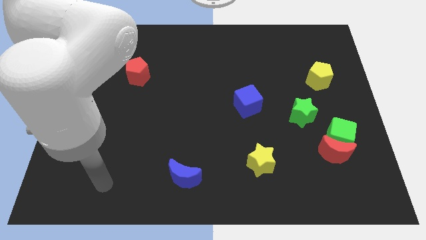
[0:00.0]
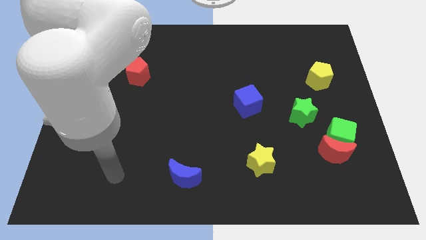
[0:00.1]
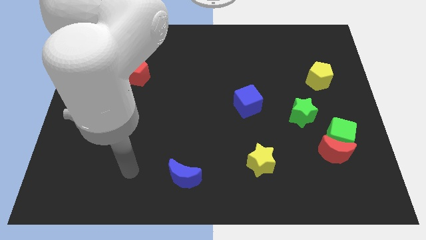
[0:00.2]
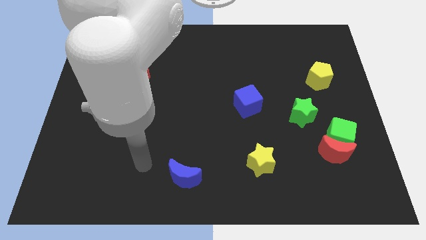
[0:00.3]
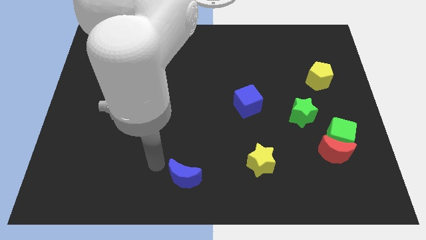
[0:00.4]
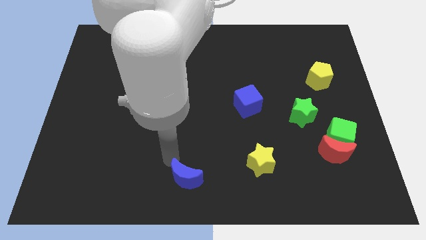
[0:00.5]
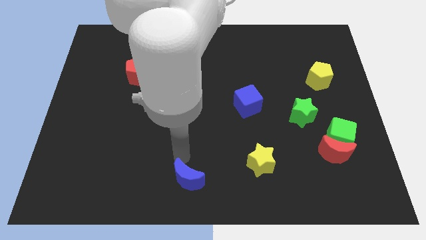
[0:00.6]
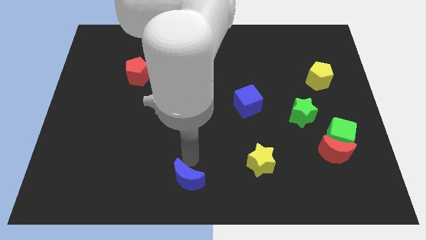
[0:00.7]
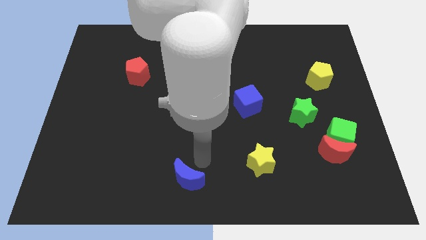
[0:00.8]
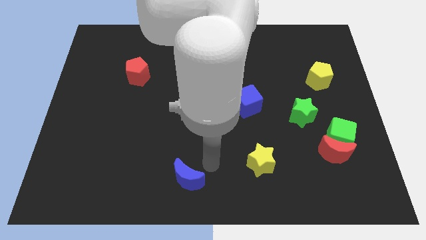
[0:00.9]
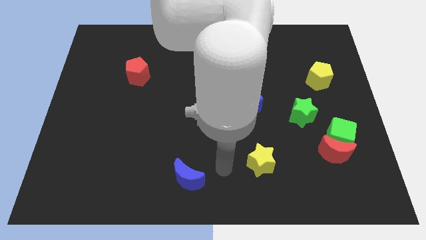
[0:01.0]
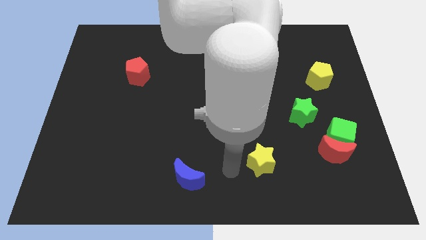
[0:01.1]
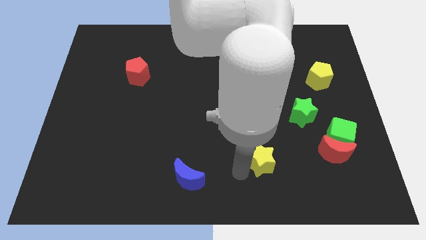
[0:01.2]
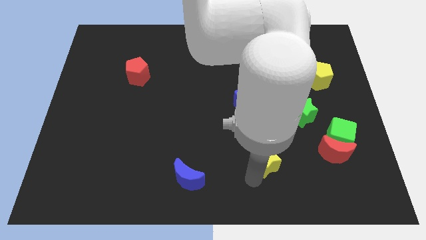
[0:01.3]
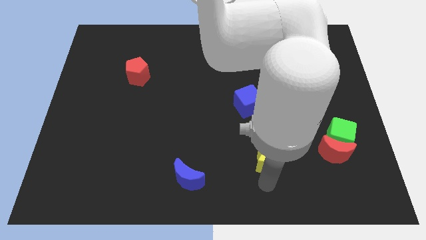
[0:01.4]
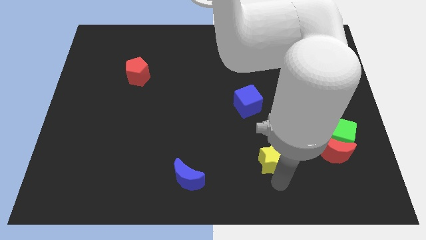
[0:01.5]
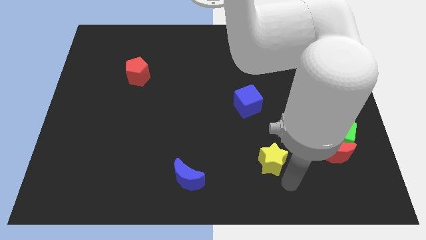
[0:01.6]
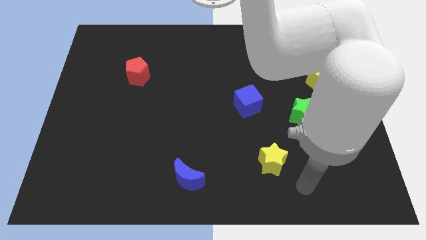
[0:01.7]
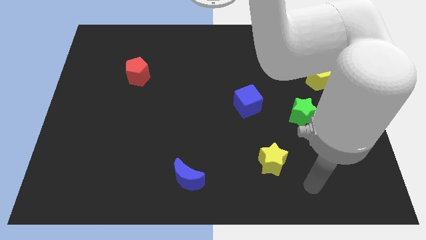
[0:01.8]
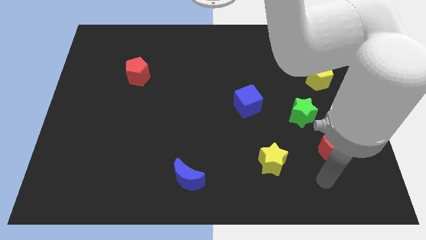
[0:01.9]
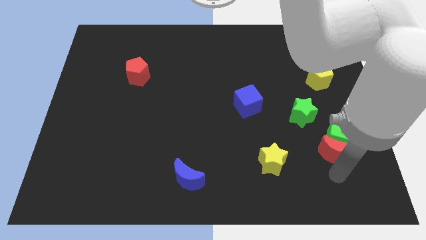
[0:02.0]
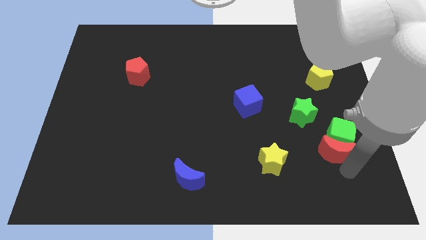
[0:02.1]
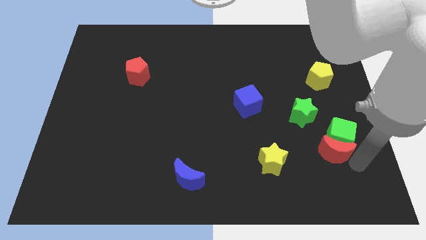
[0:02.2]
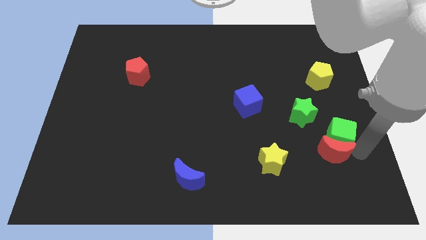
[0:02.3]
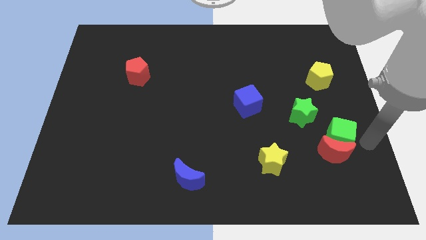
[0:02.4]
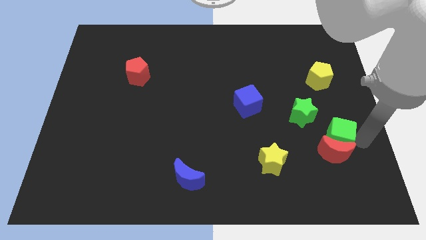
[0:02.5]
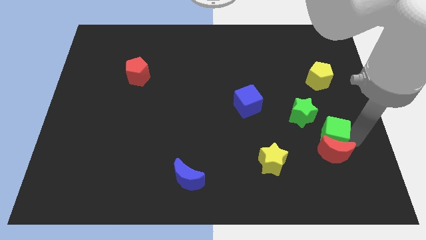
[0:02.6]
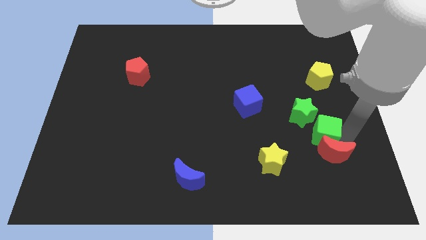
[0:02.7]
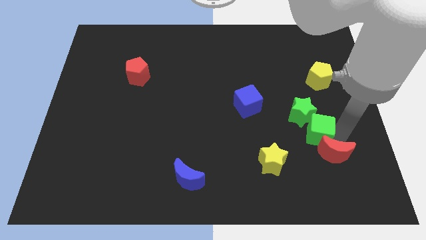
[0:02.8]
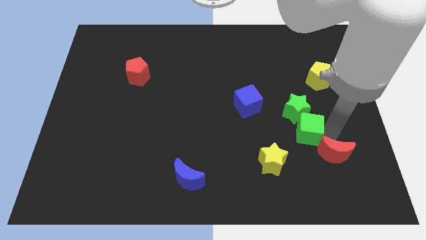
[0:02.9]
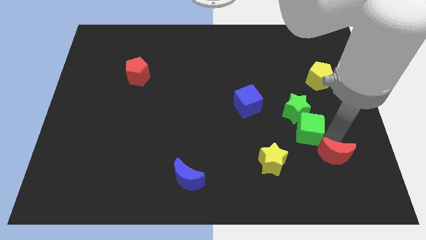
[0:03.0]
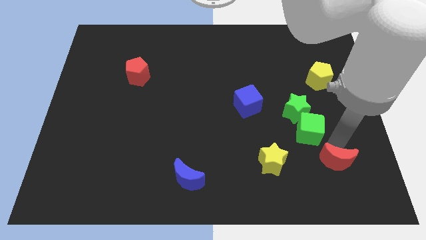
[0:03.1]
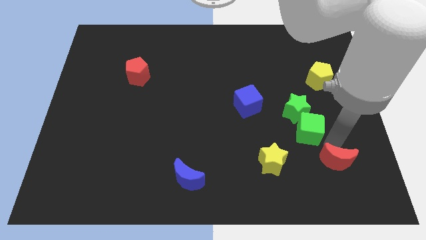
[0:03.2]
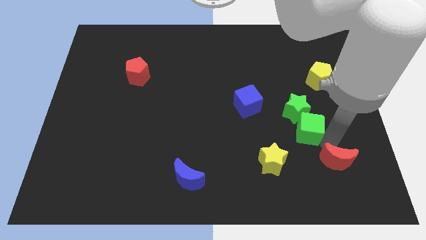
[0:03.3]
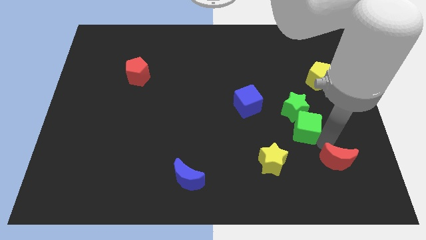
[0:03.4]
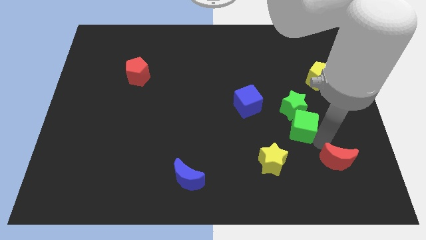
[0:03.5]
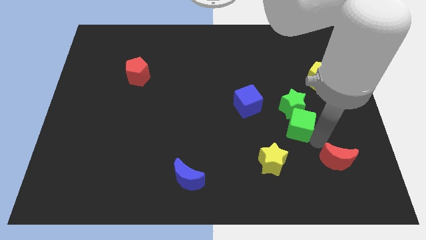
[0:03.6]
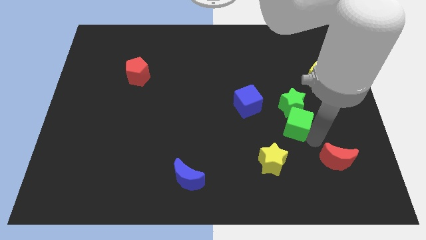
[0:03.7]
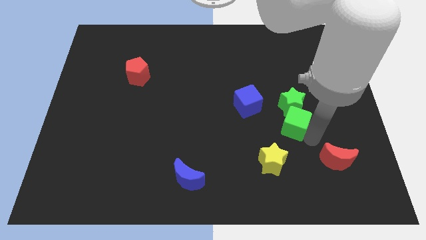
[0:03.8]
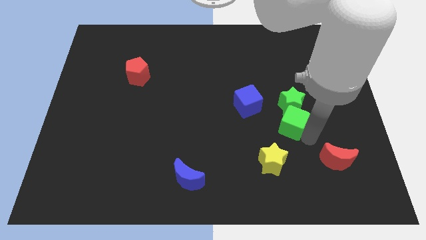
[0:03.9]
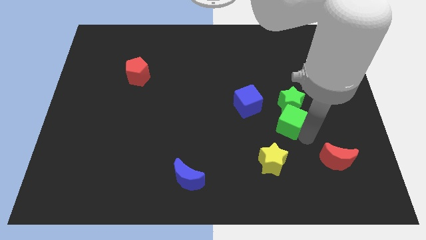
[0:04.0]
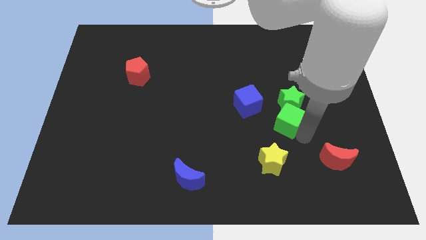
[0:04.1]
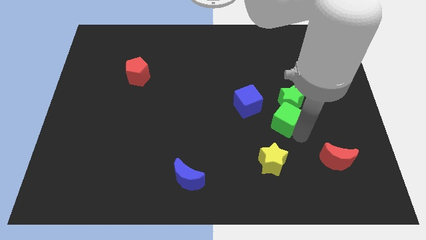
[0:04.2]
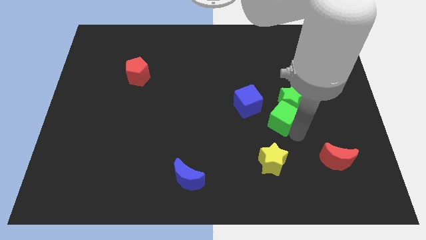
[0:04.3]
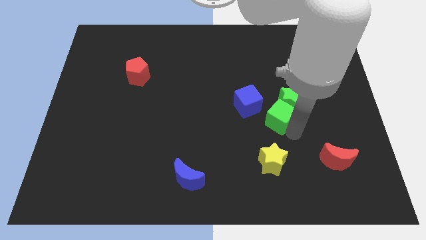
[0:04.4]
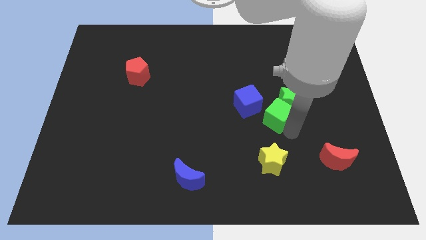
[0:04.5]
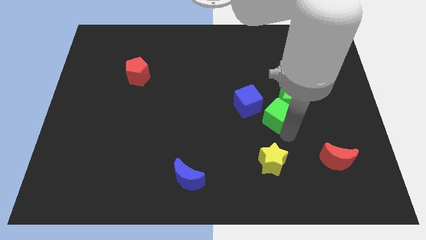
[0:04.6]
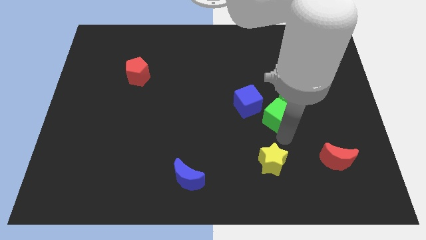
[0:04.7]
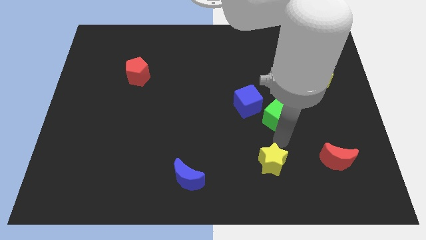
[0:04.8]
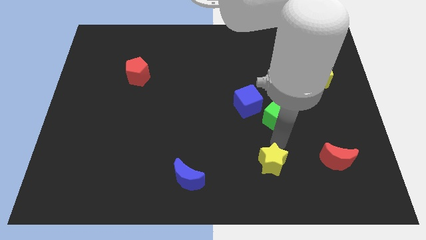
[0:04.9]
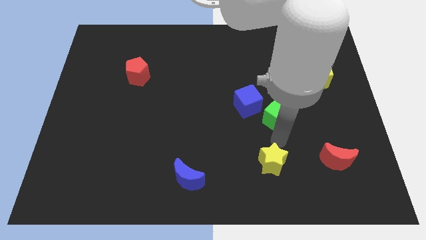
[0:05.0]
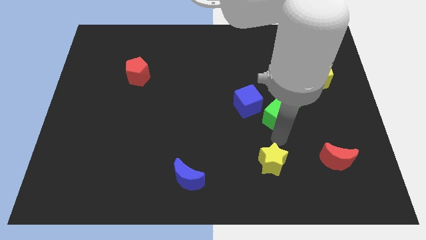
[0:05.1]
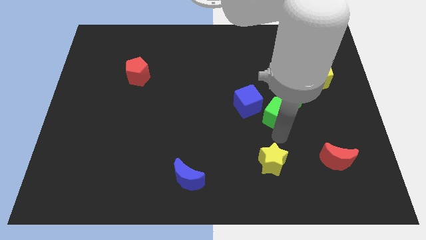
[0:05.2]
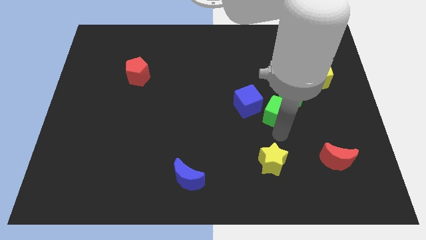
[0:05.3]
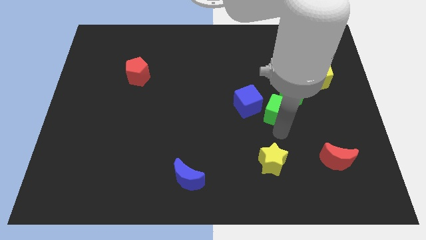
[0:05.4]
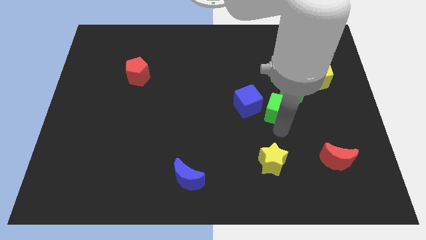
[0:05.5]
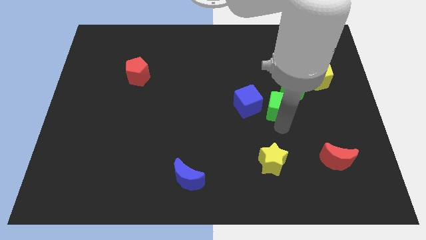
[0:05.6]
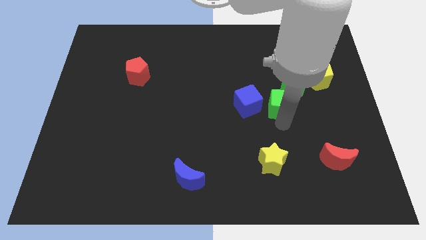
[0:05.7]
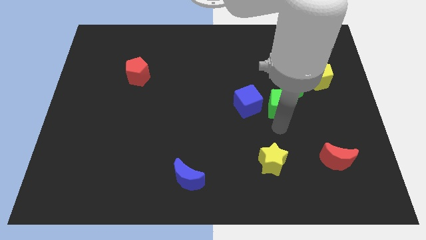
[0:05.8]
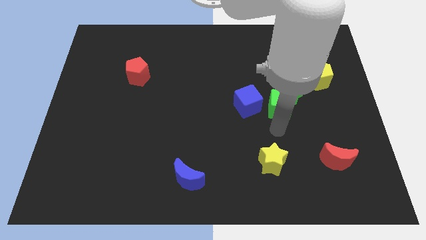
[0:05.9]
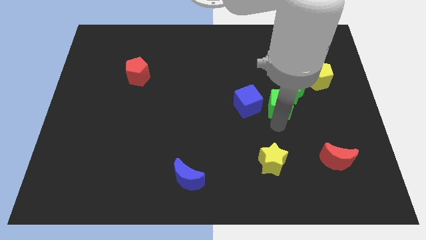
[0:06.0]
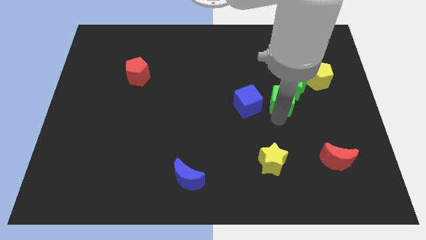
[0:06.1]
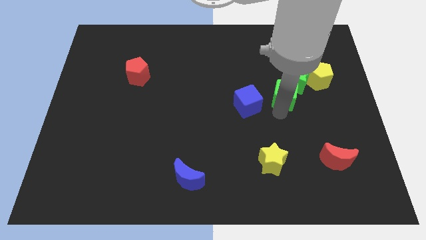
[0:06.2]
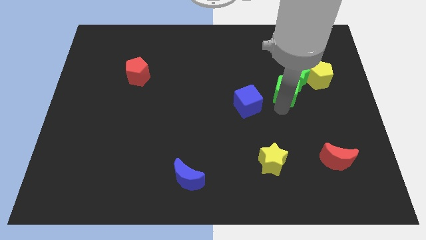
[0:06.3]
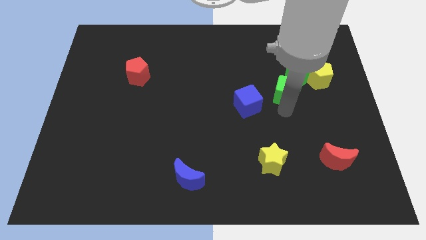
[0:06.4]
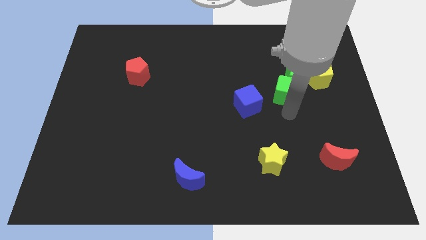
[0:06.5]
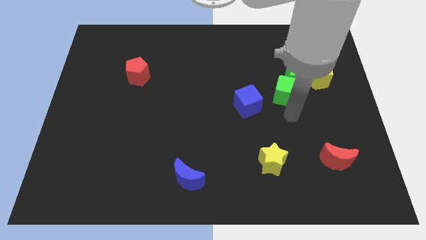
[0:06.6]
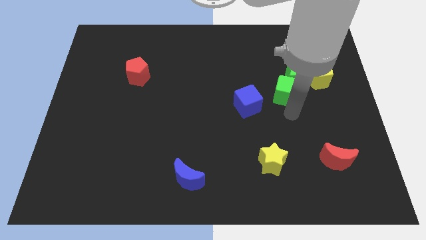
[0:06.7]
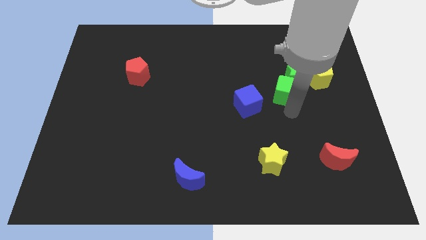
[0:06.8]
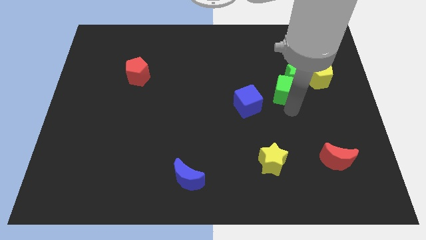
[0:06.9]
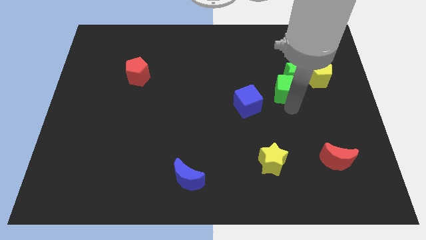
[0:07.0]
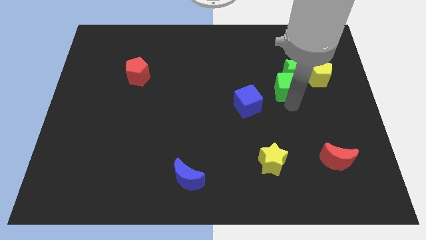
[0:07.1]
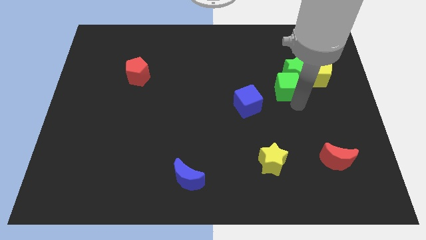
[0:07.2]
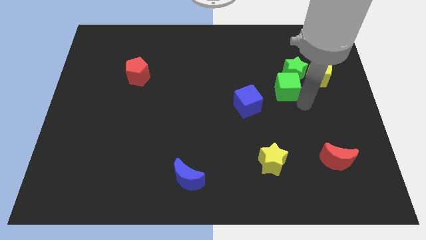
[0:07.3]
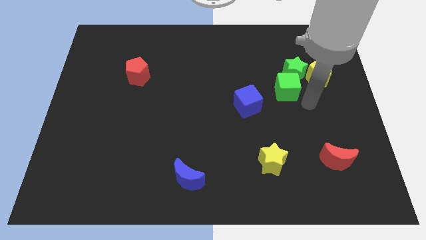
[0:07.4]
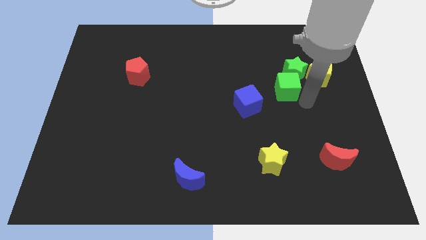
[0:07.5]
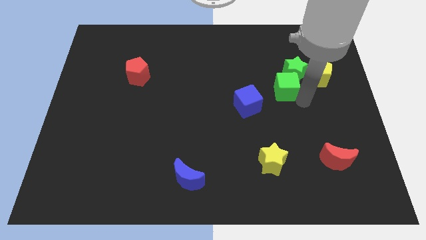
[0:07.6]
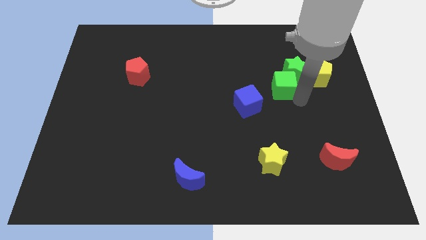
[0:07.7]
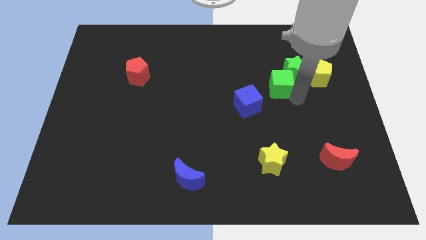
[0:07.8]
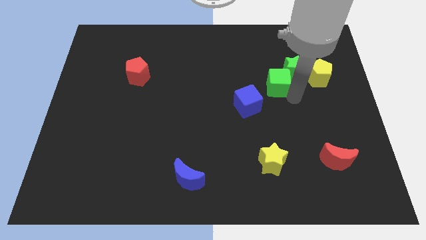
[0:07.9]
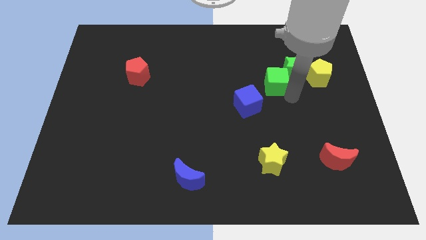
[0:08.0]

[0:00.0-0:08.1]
move the green cube up and to the left
